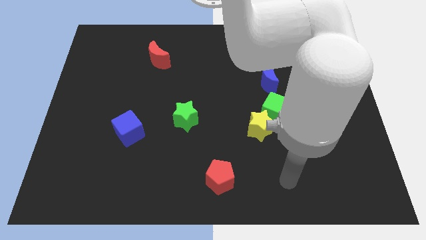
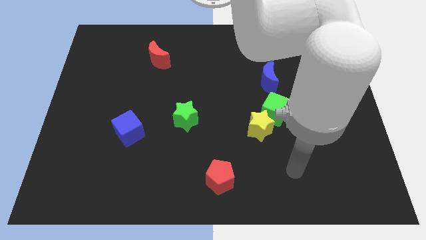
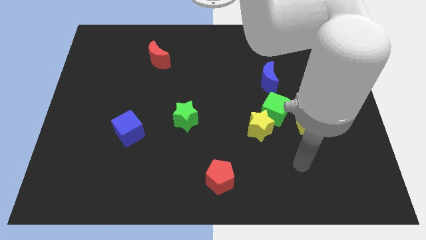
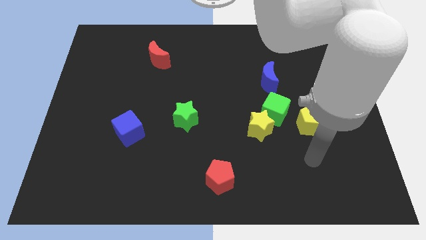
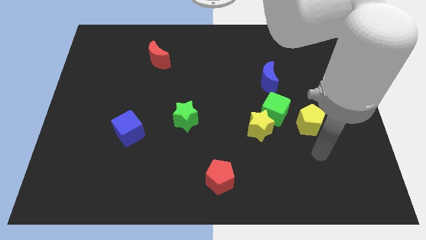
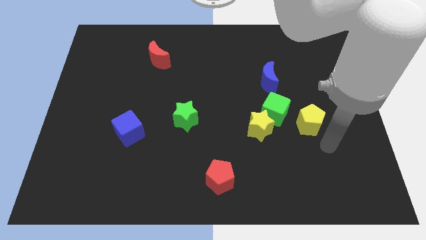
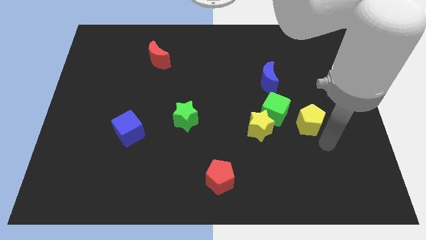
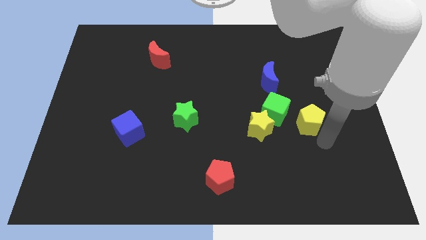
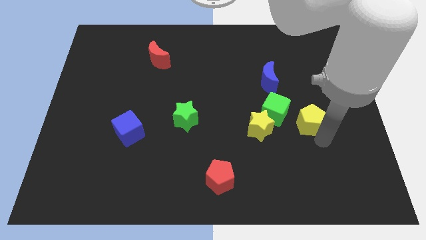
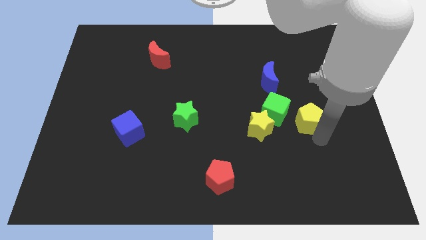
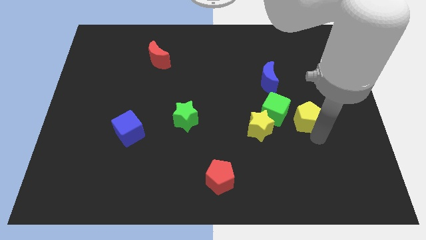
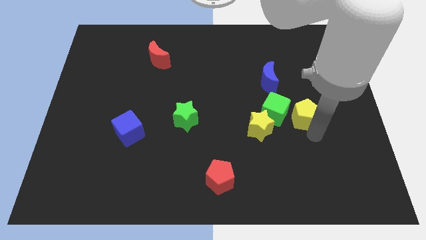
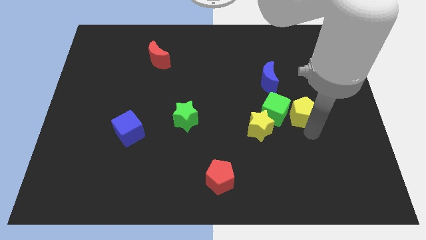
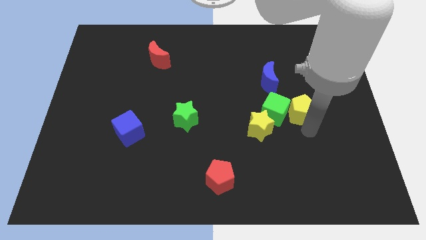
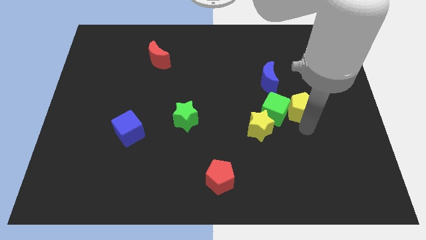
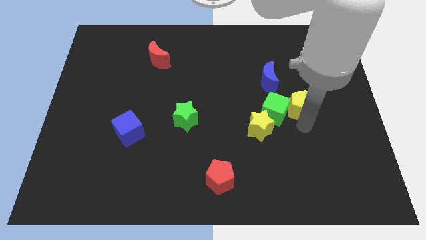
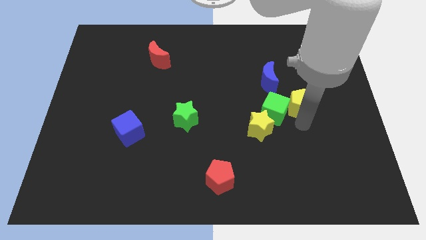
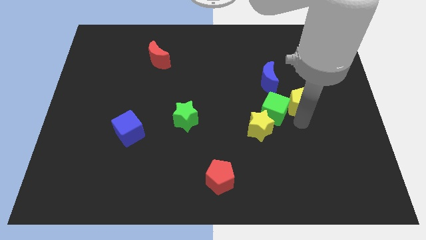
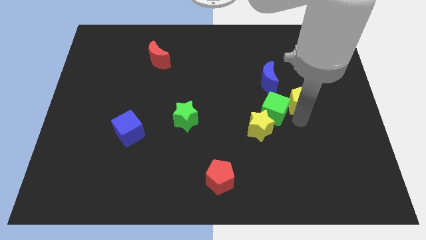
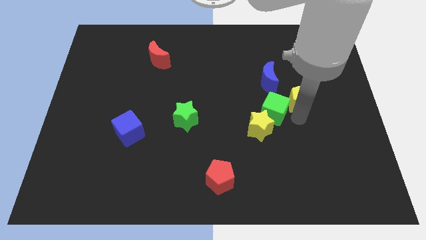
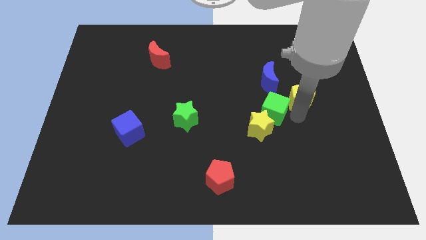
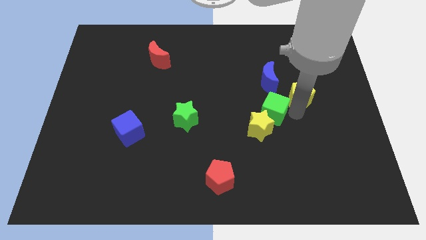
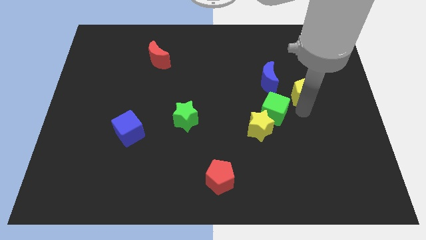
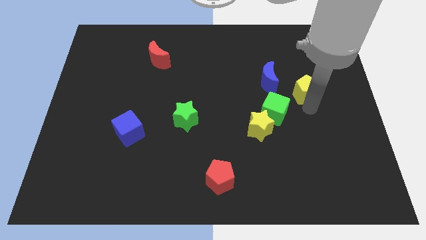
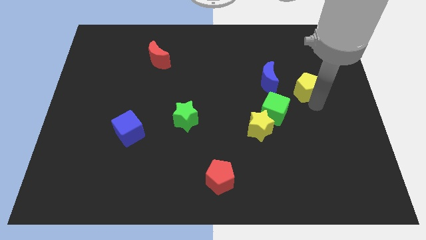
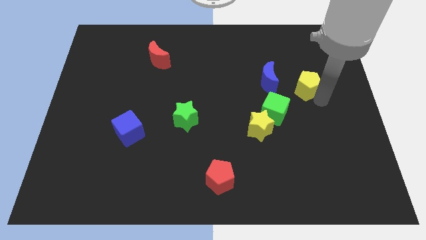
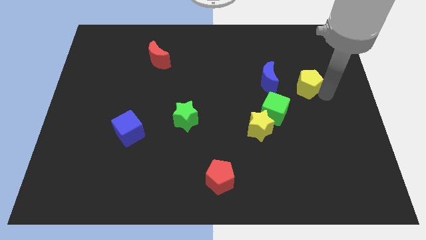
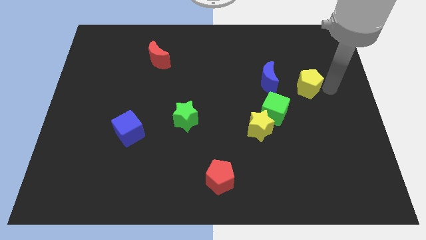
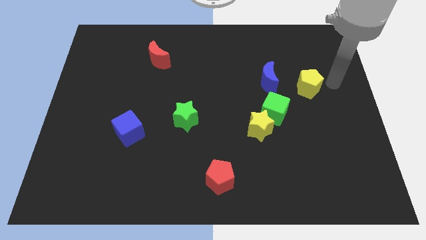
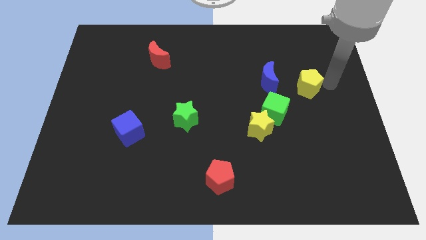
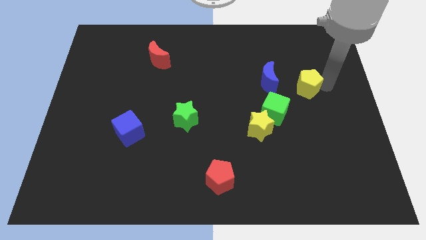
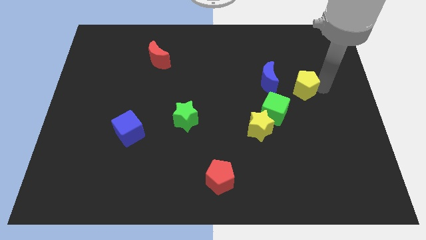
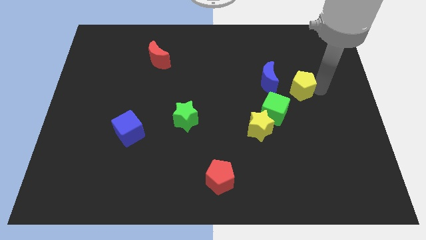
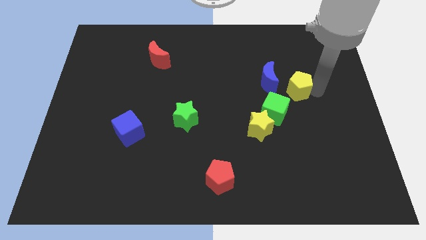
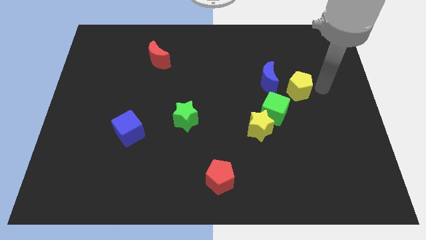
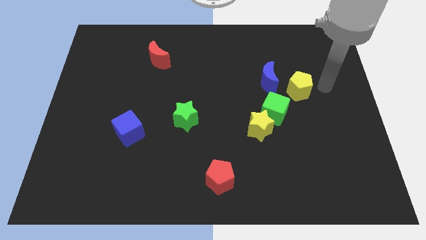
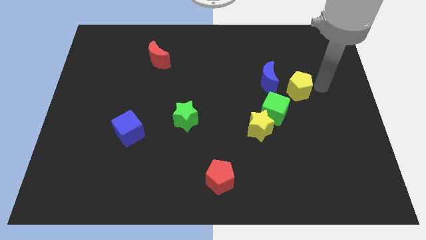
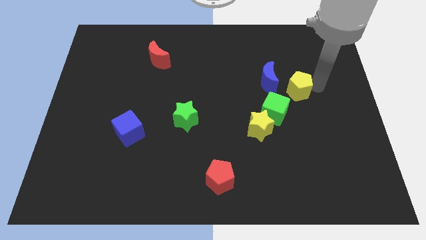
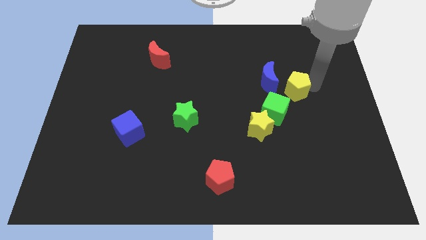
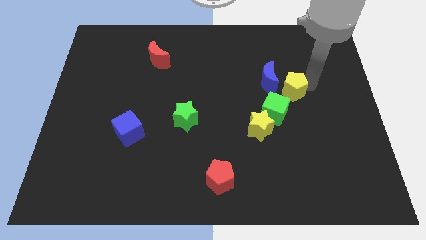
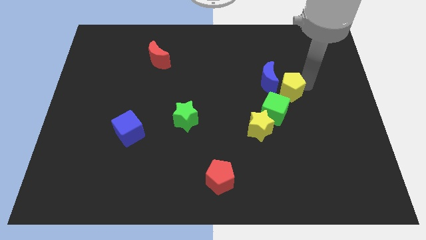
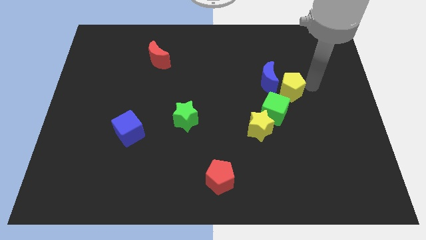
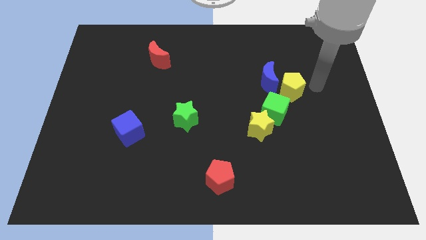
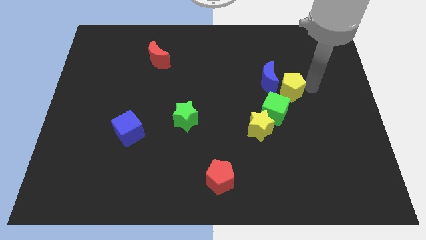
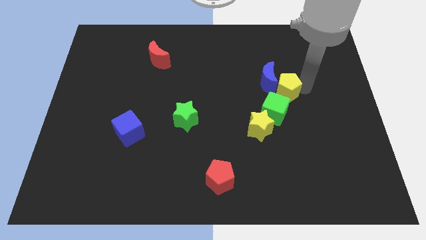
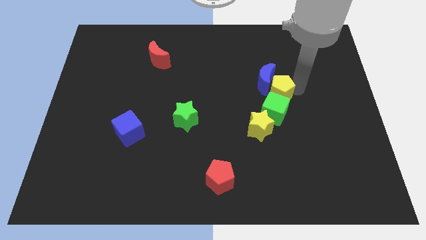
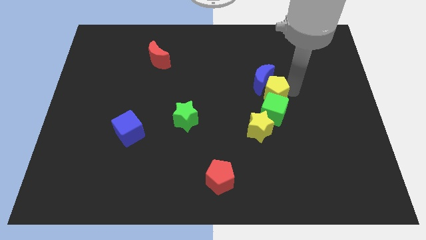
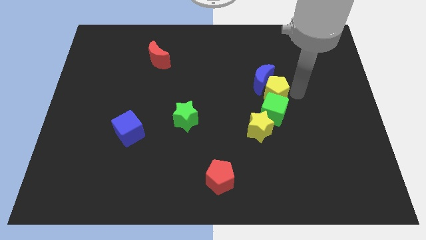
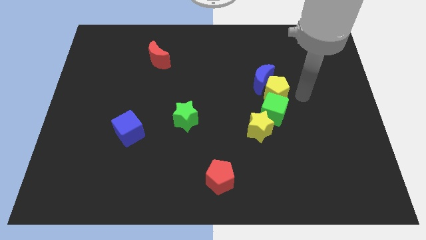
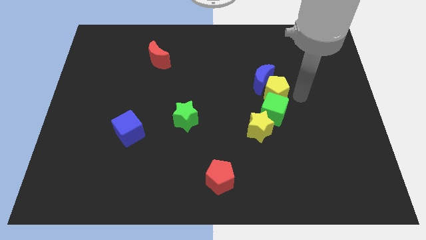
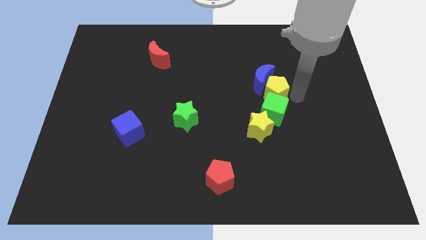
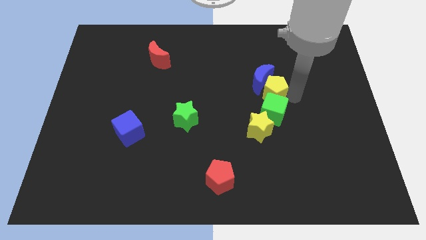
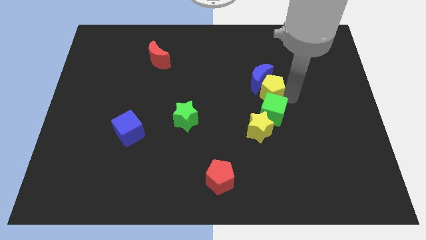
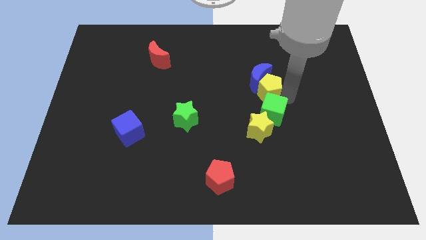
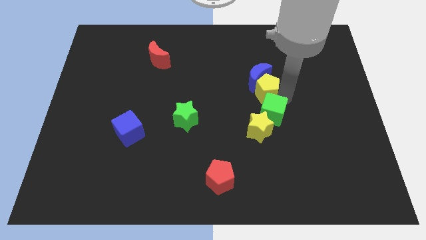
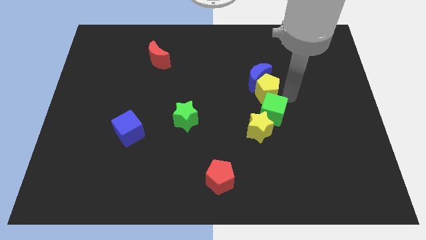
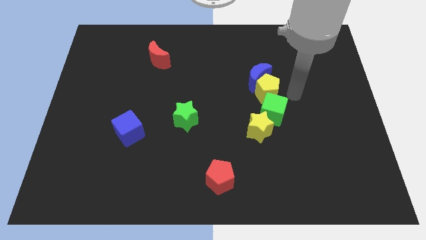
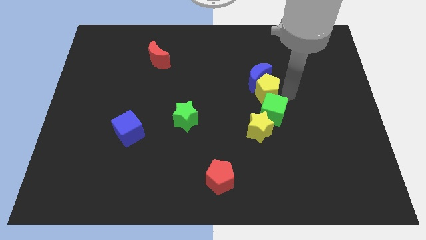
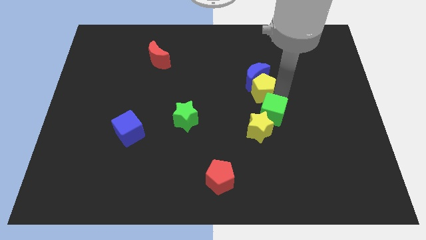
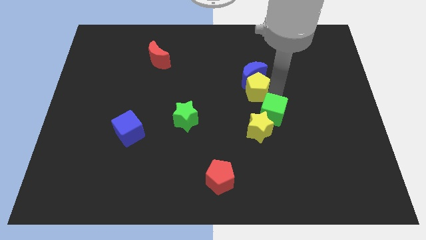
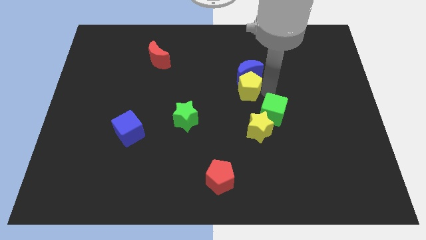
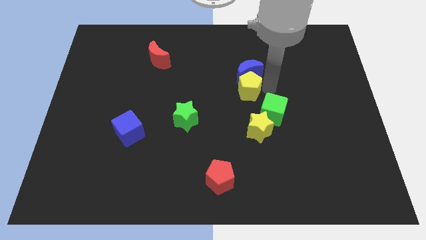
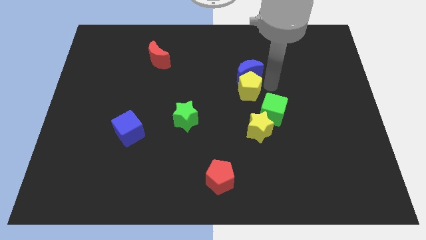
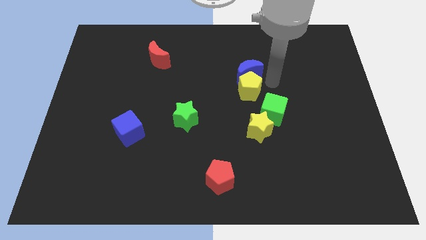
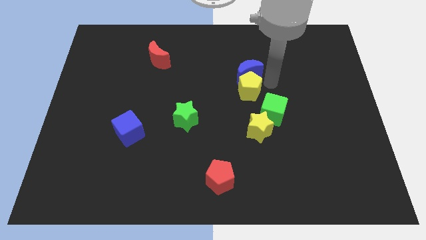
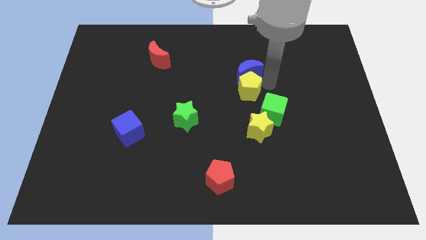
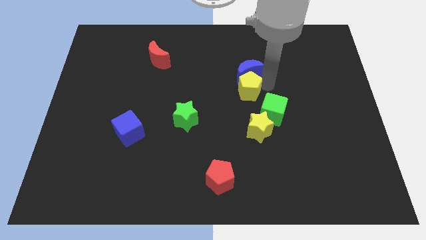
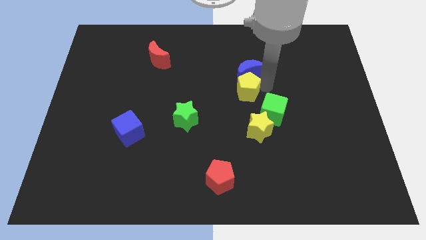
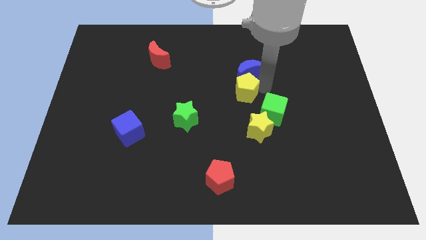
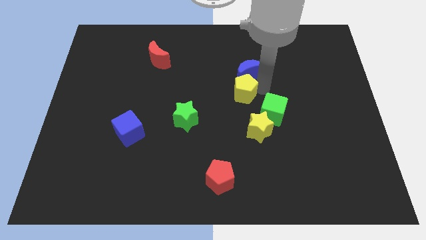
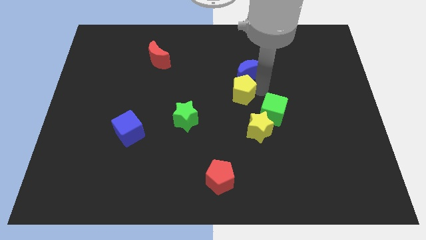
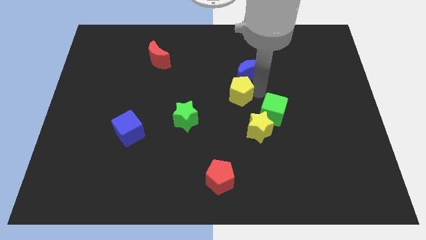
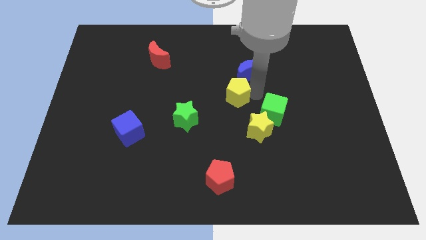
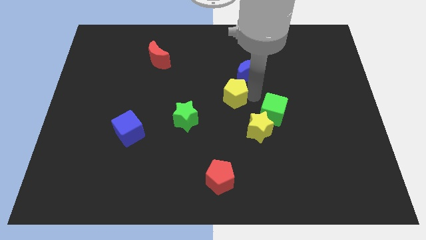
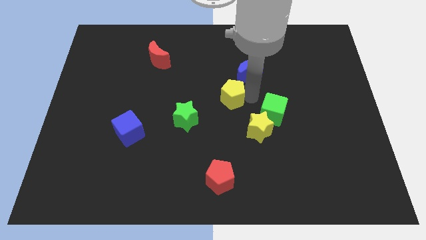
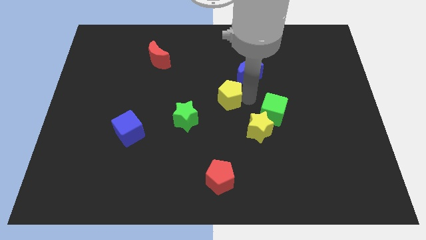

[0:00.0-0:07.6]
put the yellow pentagon diagonally up and to the right of the green star
